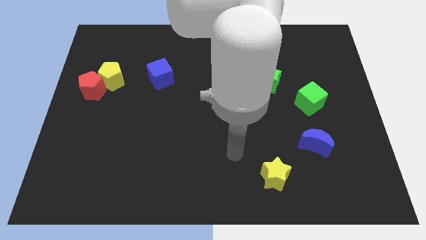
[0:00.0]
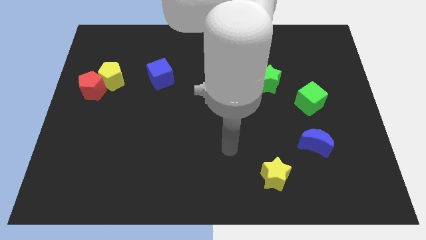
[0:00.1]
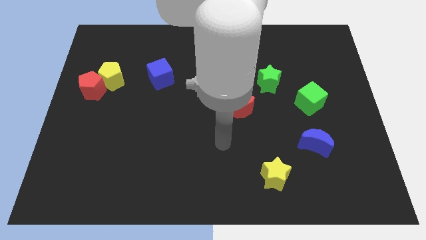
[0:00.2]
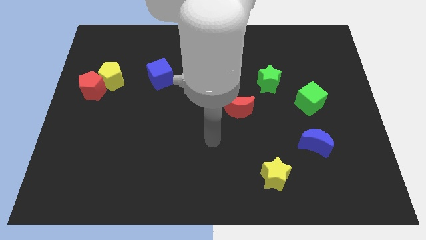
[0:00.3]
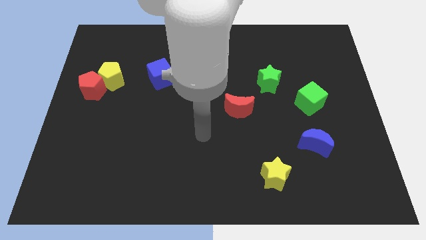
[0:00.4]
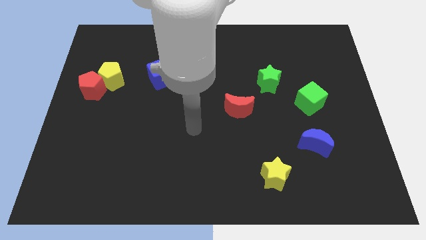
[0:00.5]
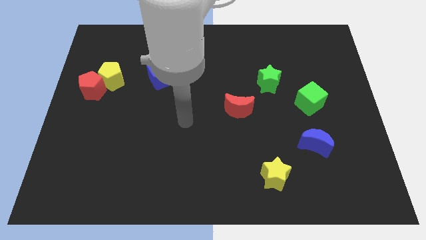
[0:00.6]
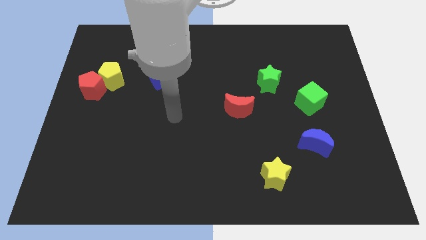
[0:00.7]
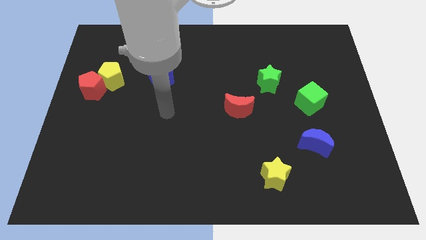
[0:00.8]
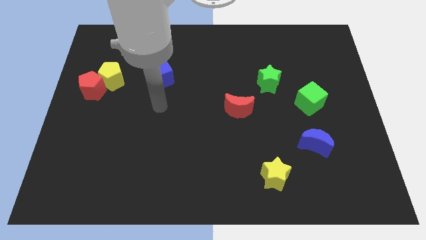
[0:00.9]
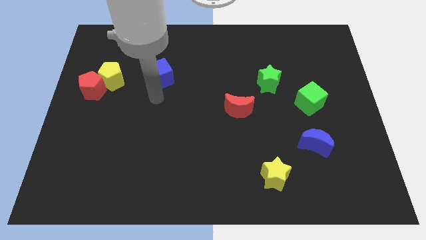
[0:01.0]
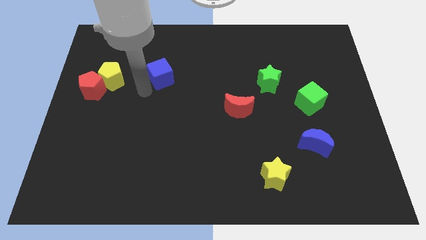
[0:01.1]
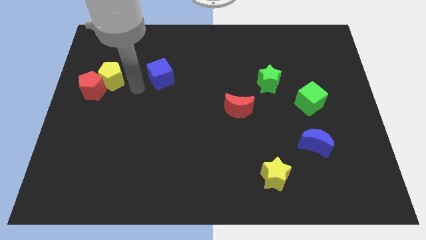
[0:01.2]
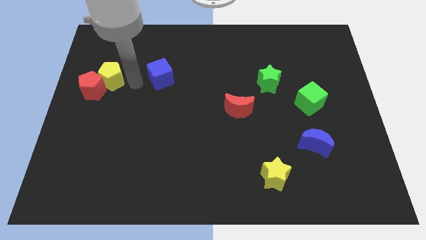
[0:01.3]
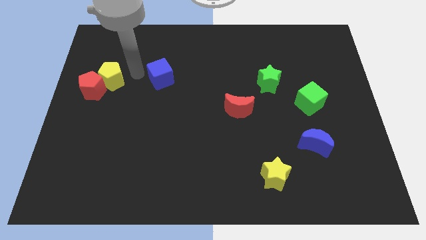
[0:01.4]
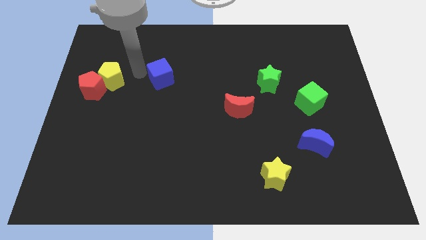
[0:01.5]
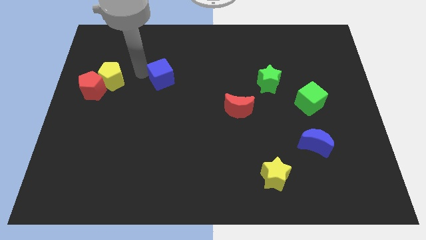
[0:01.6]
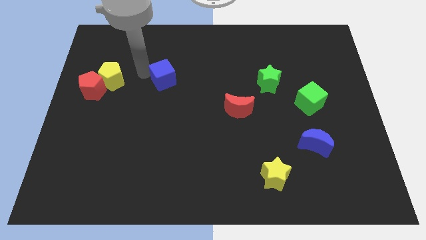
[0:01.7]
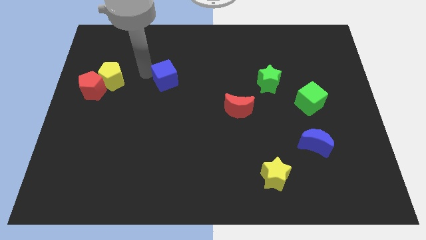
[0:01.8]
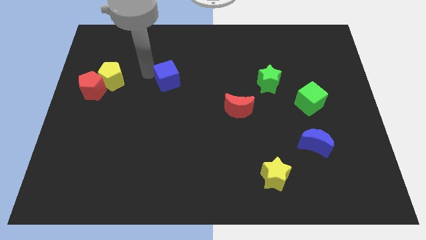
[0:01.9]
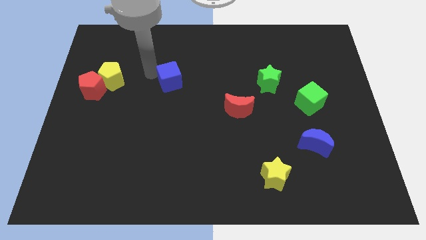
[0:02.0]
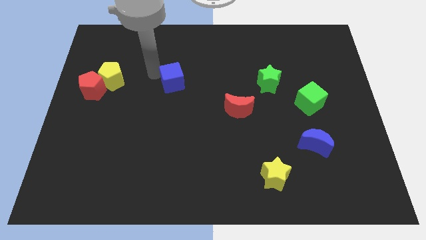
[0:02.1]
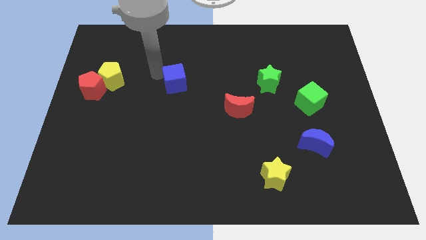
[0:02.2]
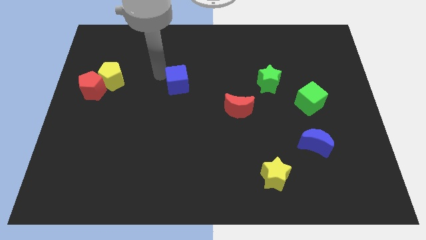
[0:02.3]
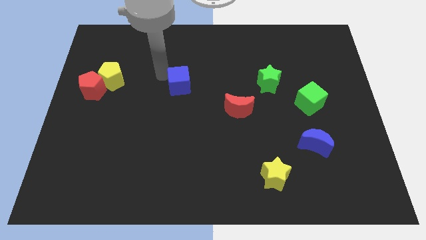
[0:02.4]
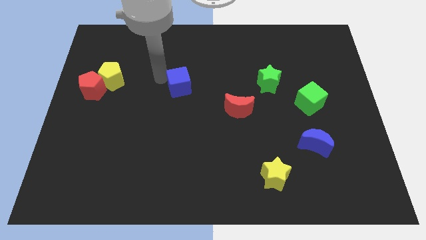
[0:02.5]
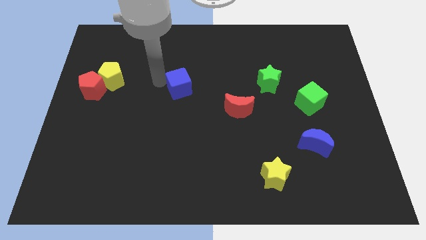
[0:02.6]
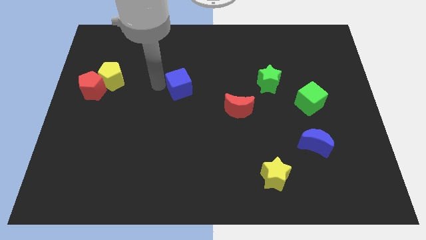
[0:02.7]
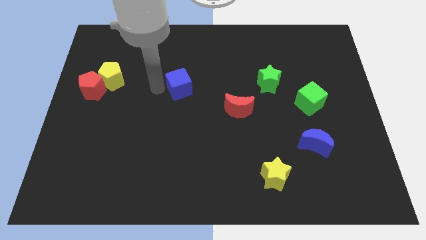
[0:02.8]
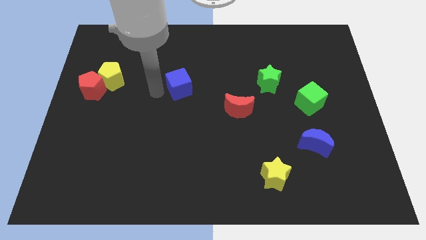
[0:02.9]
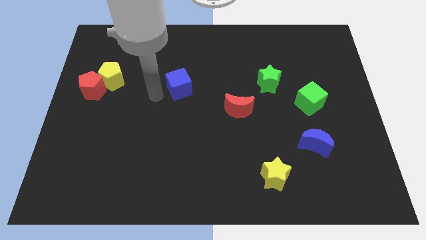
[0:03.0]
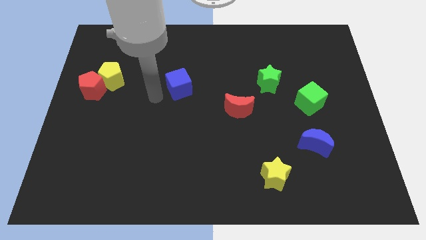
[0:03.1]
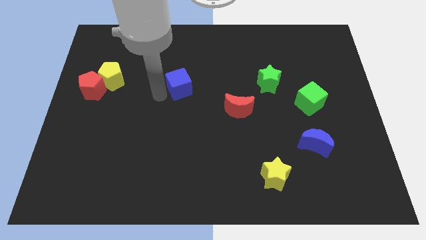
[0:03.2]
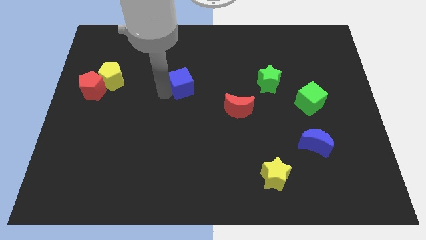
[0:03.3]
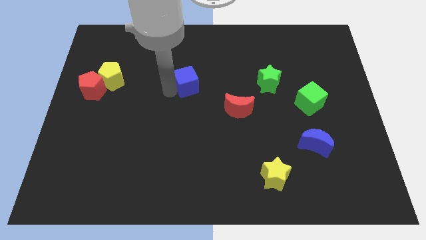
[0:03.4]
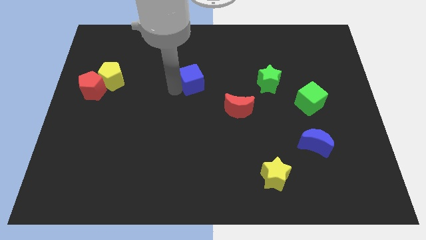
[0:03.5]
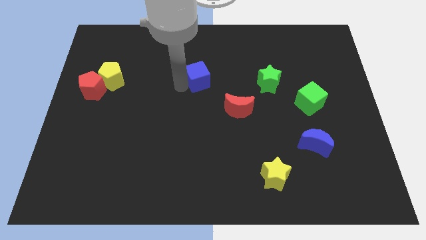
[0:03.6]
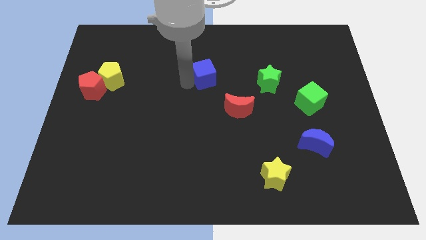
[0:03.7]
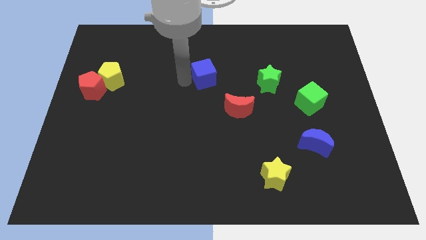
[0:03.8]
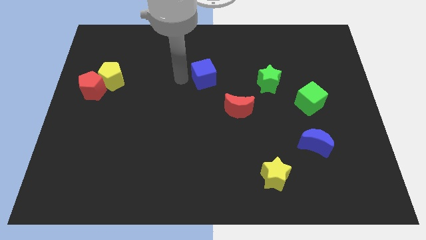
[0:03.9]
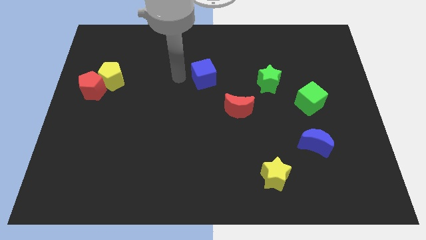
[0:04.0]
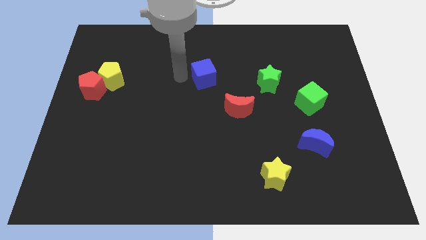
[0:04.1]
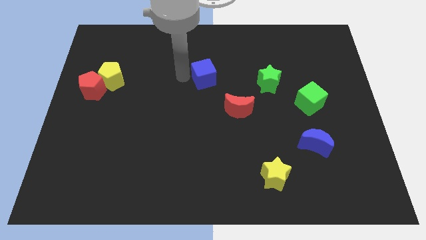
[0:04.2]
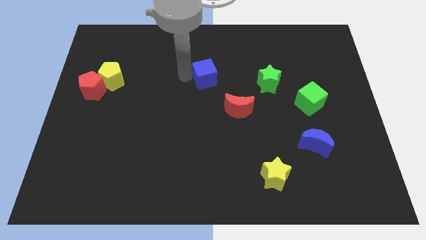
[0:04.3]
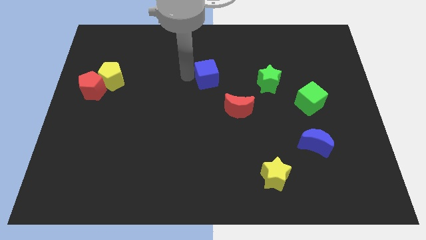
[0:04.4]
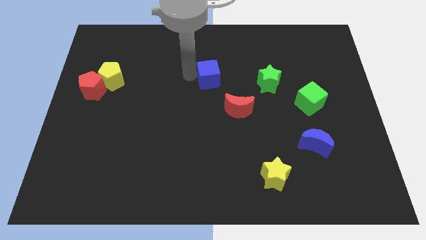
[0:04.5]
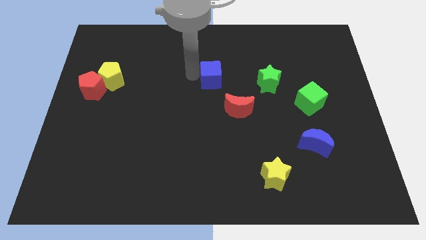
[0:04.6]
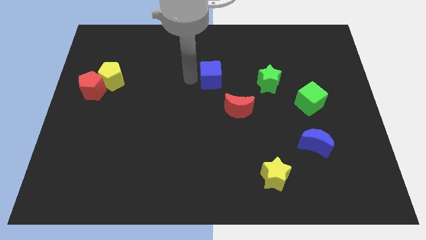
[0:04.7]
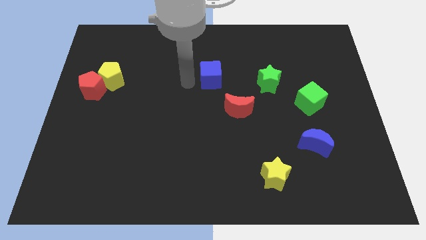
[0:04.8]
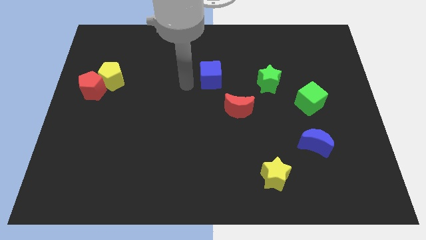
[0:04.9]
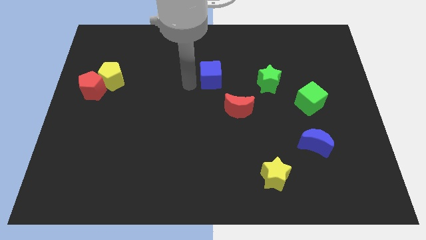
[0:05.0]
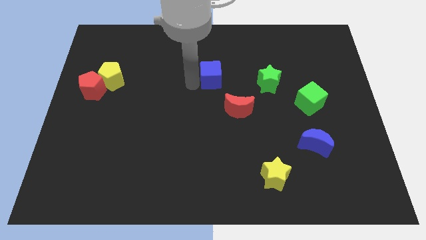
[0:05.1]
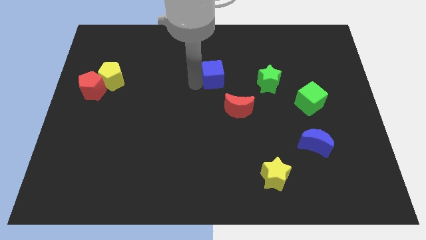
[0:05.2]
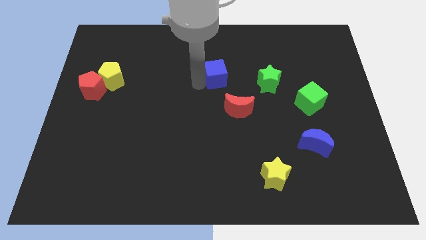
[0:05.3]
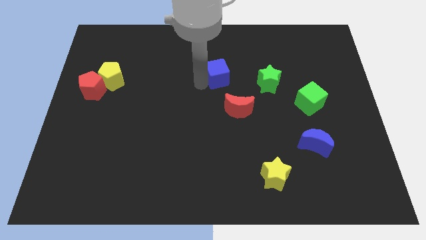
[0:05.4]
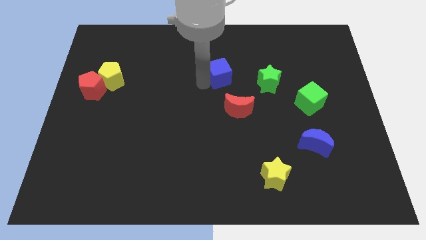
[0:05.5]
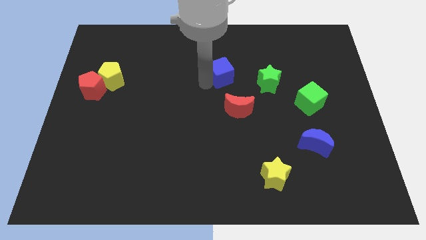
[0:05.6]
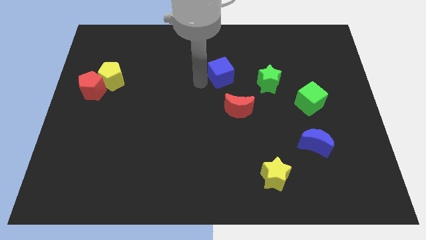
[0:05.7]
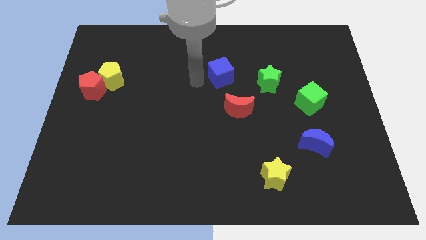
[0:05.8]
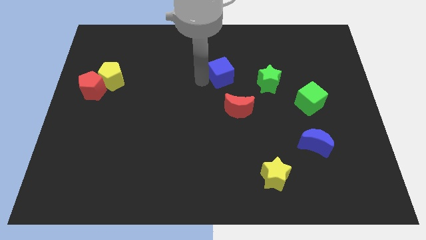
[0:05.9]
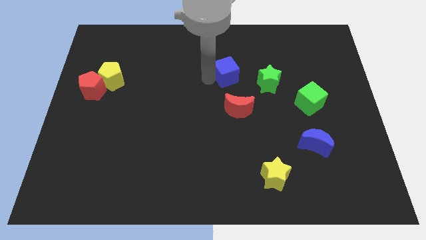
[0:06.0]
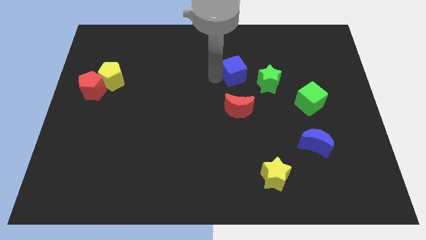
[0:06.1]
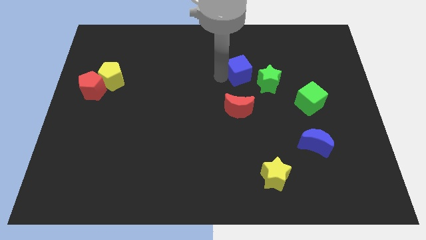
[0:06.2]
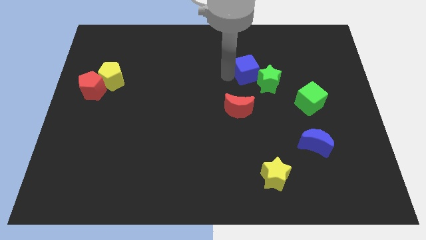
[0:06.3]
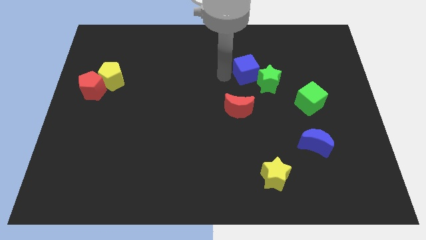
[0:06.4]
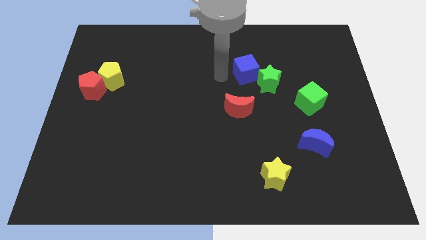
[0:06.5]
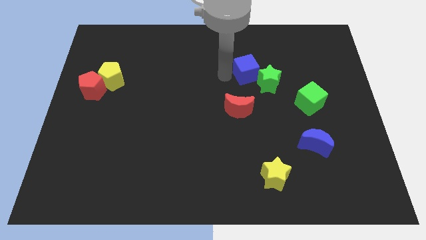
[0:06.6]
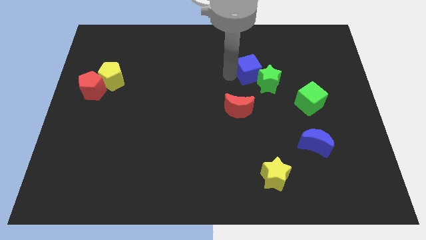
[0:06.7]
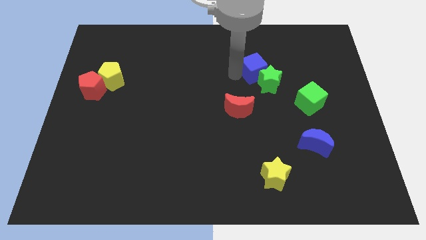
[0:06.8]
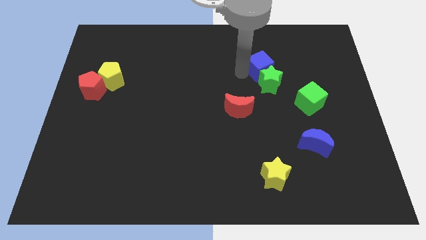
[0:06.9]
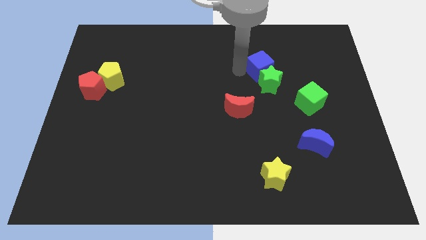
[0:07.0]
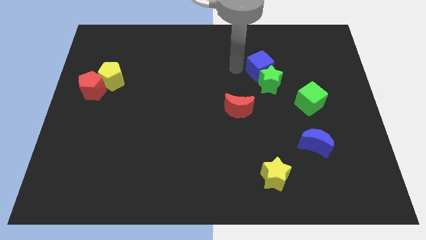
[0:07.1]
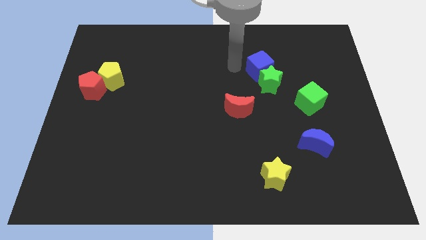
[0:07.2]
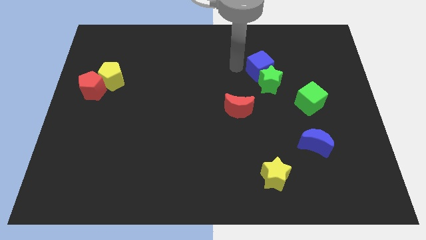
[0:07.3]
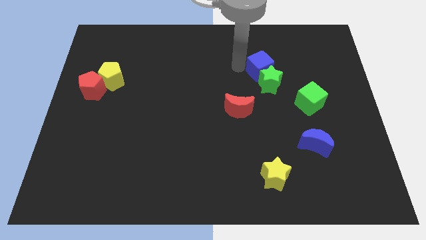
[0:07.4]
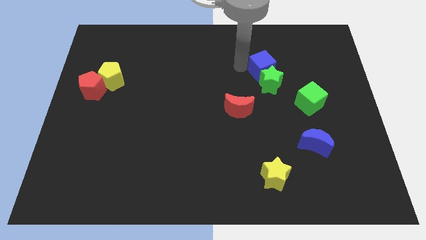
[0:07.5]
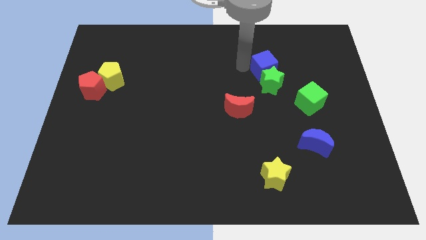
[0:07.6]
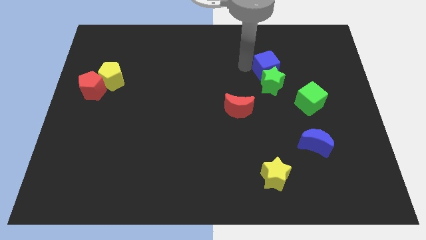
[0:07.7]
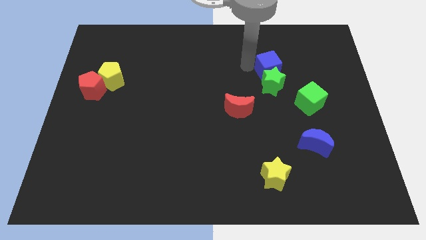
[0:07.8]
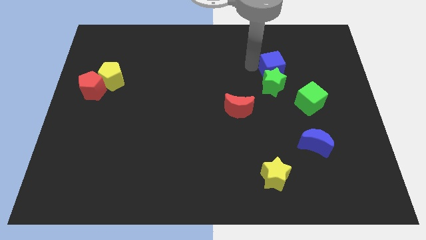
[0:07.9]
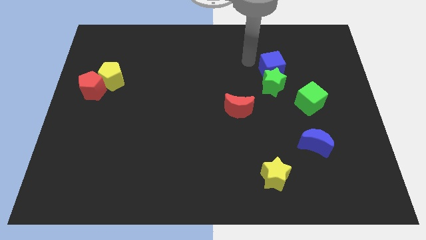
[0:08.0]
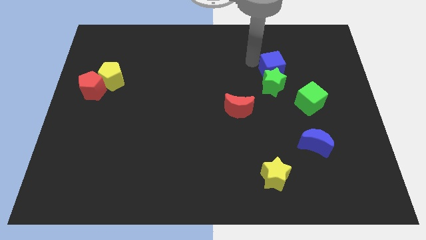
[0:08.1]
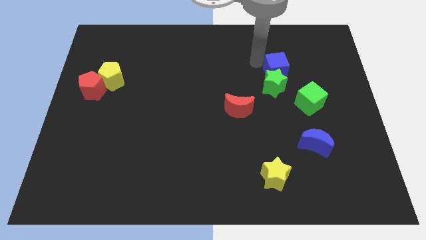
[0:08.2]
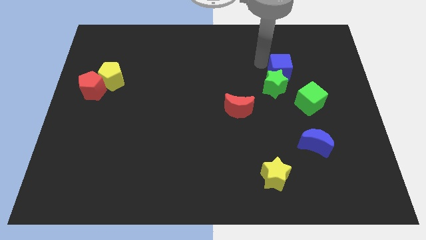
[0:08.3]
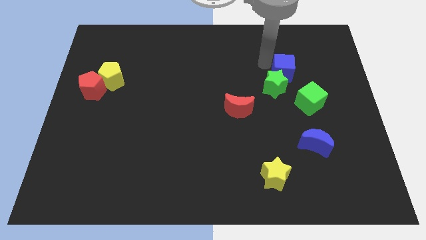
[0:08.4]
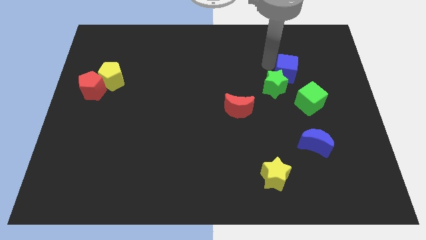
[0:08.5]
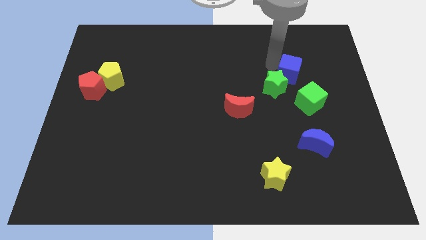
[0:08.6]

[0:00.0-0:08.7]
move the blue cube just right of the green star
